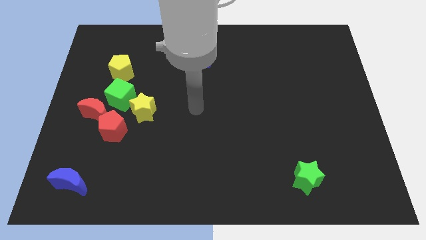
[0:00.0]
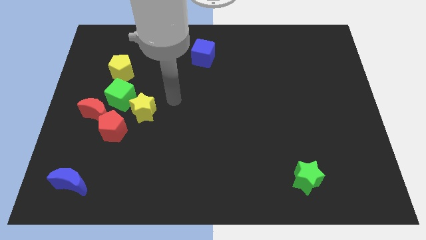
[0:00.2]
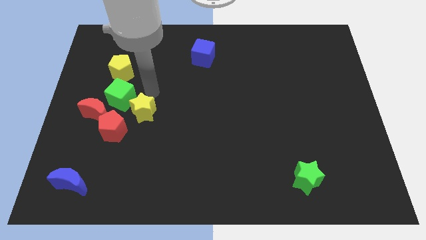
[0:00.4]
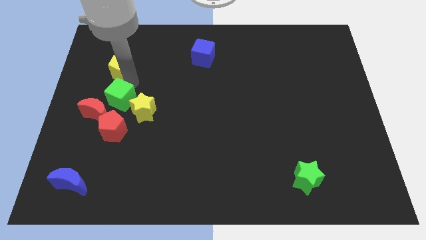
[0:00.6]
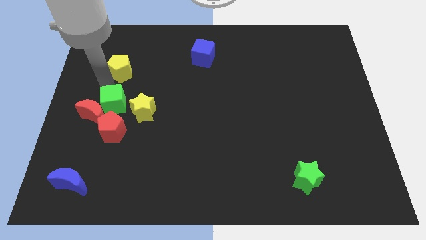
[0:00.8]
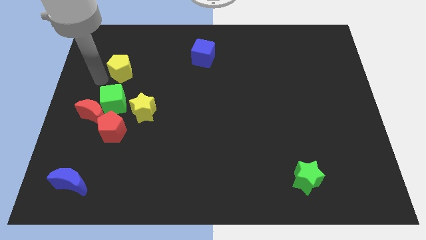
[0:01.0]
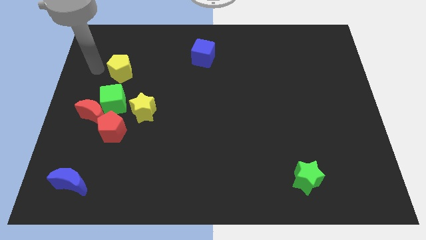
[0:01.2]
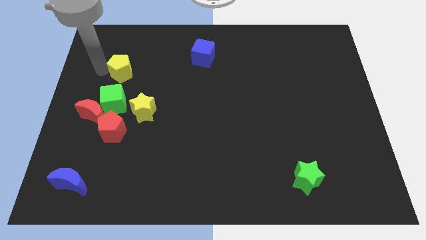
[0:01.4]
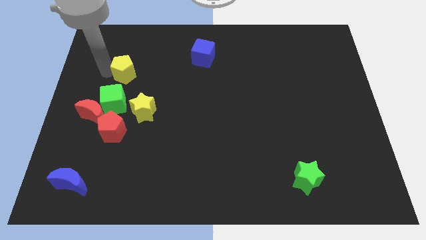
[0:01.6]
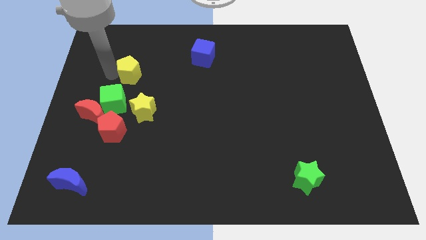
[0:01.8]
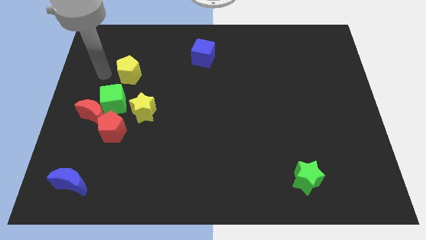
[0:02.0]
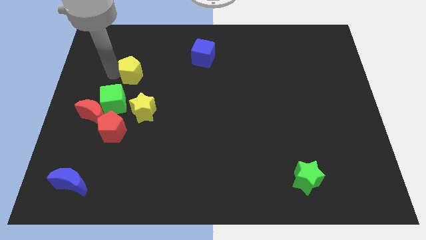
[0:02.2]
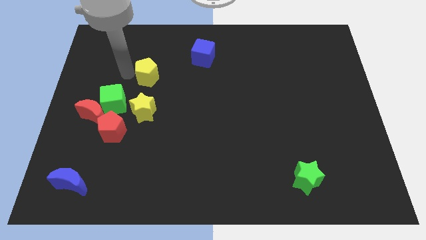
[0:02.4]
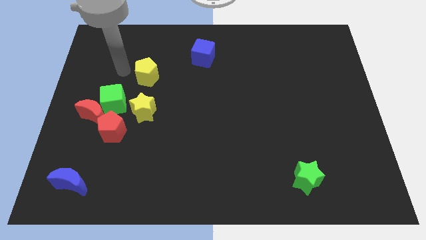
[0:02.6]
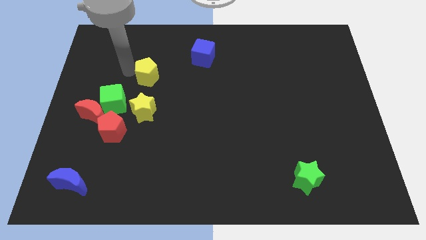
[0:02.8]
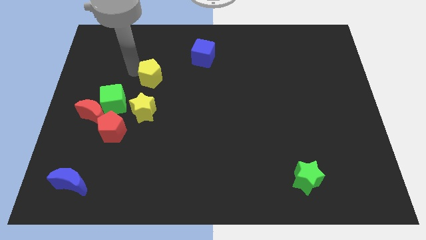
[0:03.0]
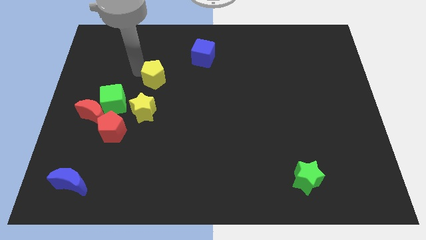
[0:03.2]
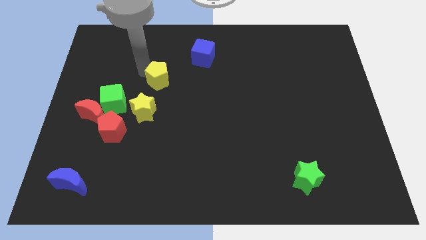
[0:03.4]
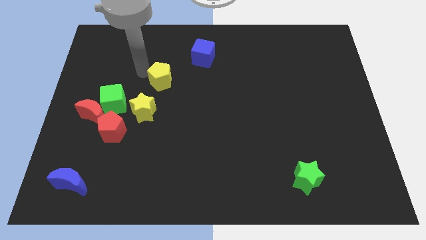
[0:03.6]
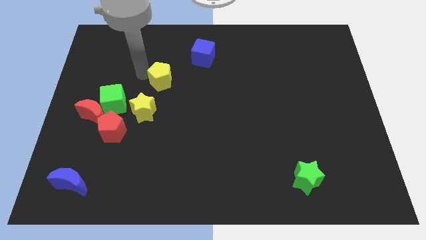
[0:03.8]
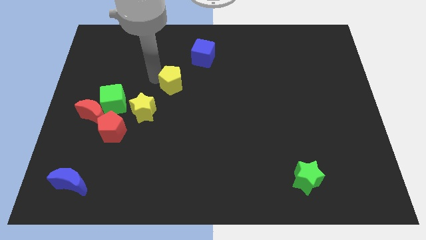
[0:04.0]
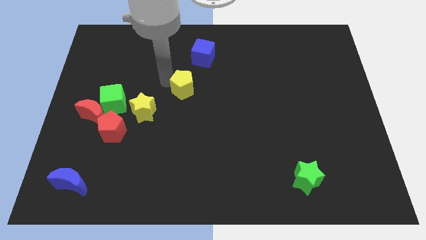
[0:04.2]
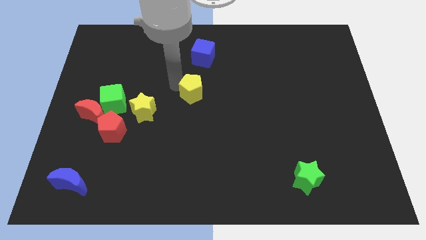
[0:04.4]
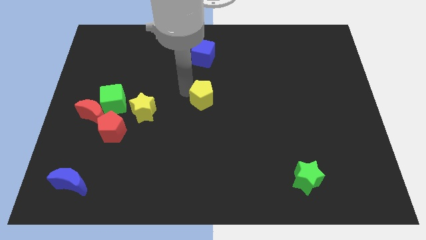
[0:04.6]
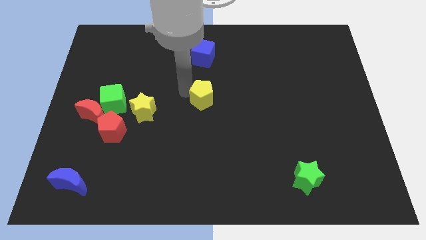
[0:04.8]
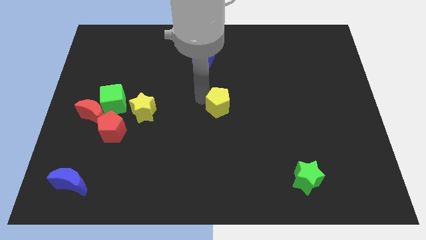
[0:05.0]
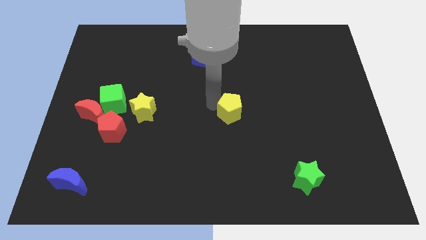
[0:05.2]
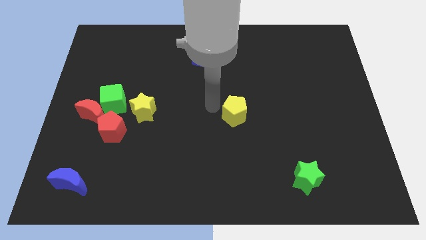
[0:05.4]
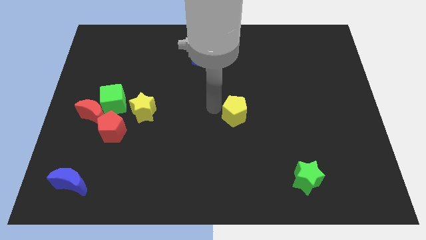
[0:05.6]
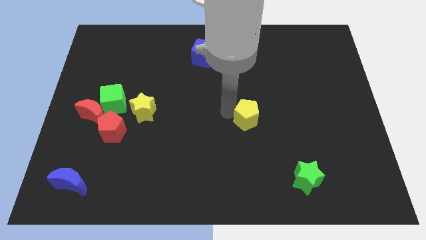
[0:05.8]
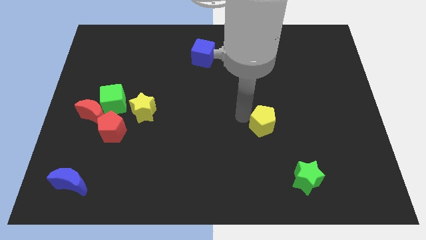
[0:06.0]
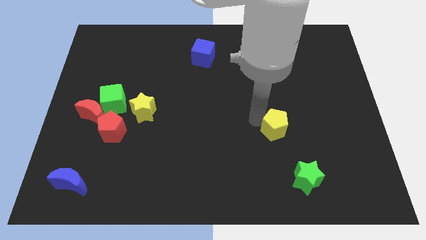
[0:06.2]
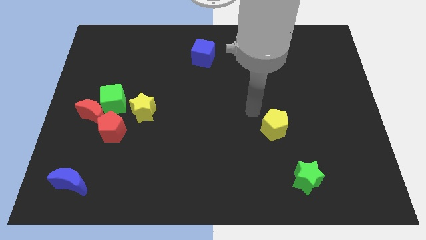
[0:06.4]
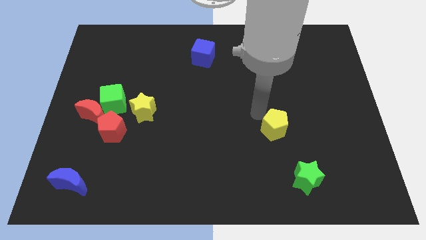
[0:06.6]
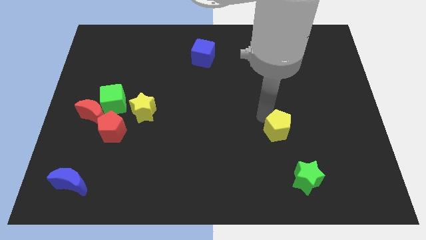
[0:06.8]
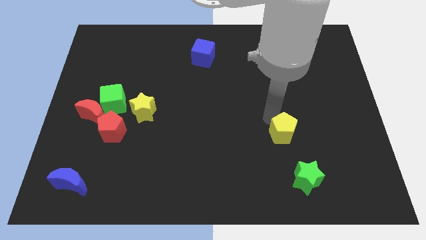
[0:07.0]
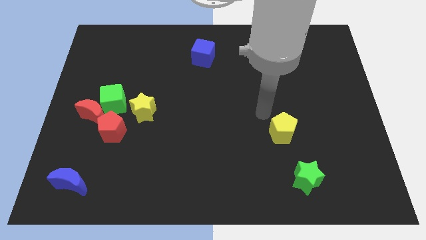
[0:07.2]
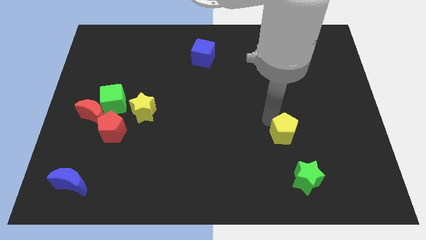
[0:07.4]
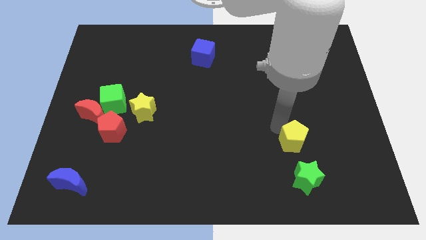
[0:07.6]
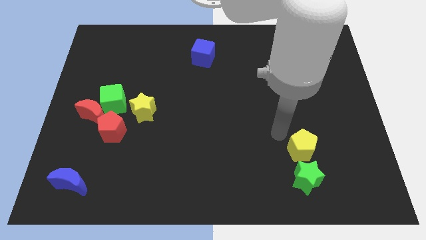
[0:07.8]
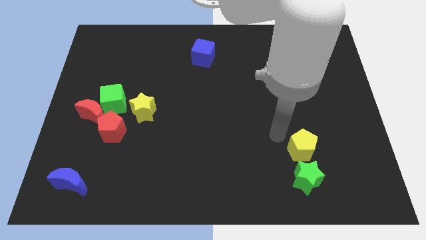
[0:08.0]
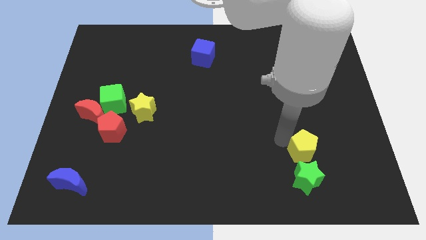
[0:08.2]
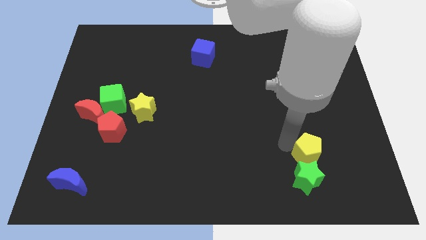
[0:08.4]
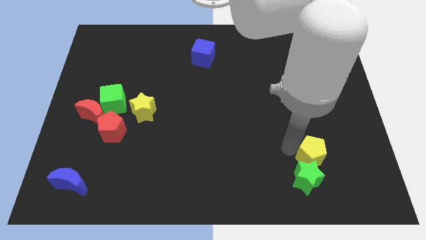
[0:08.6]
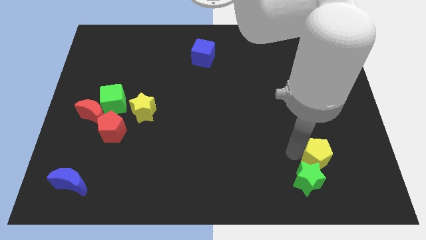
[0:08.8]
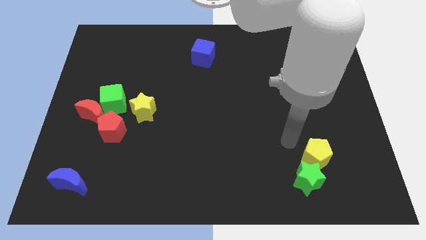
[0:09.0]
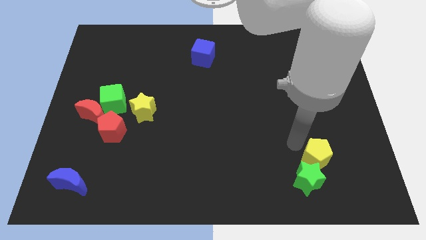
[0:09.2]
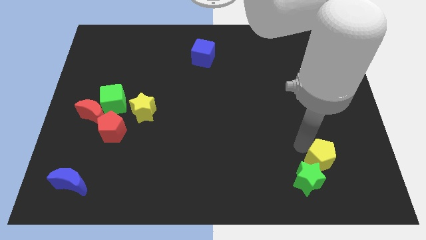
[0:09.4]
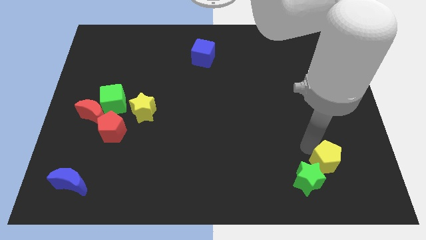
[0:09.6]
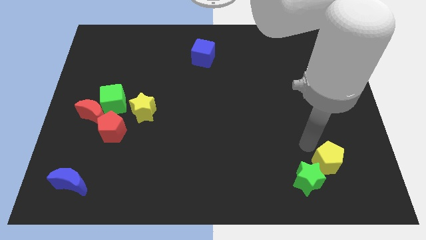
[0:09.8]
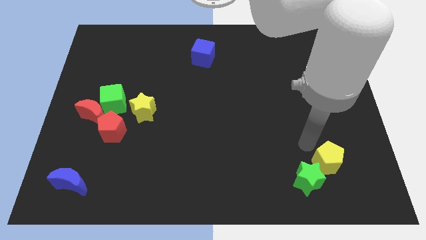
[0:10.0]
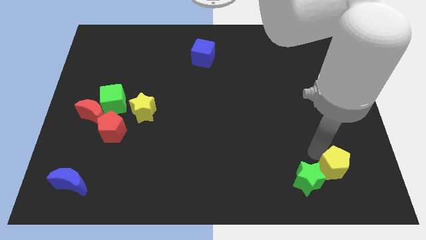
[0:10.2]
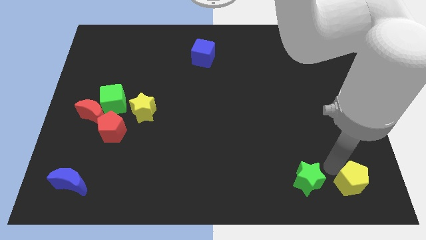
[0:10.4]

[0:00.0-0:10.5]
slide the yellow pentagon to the lower right corner

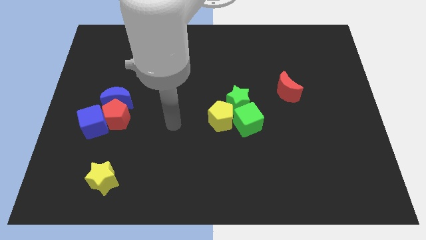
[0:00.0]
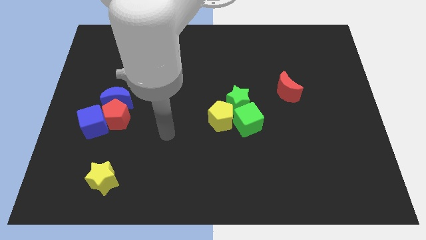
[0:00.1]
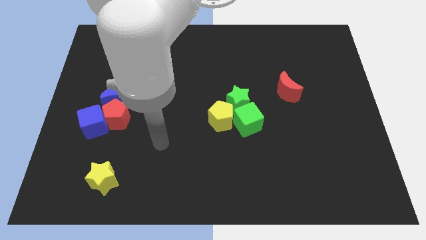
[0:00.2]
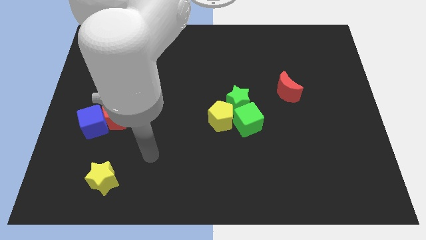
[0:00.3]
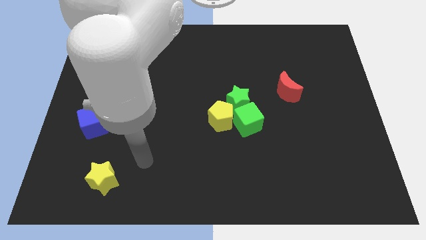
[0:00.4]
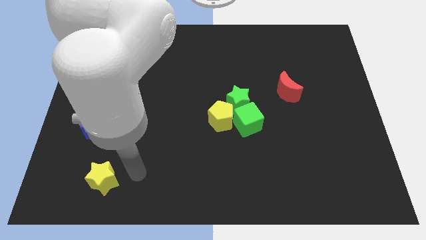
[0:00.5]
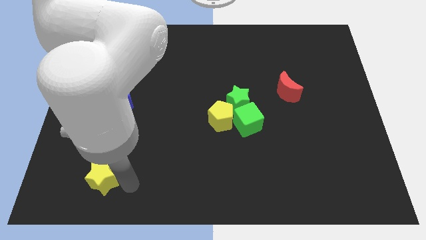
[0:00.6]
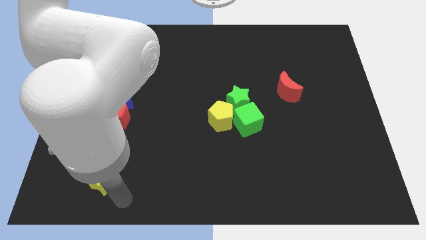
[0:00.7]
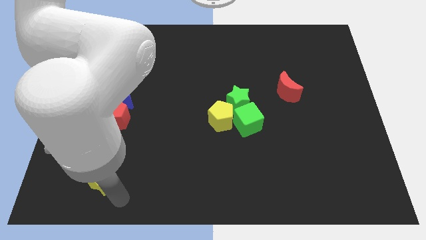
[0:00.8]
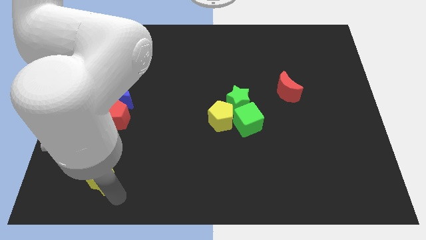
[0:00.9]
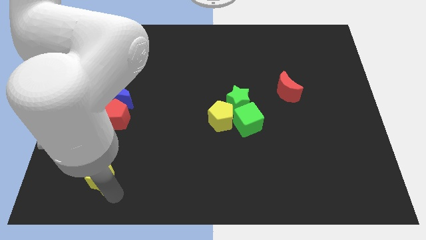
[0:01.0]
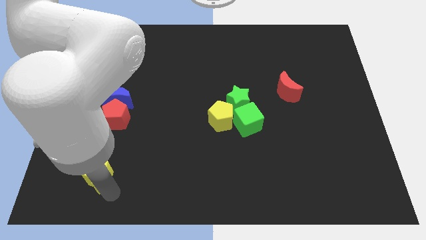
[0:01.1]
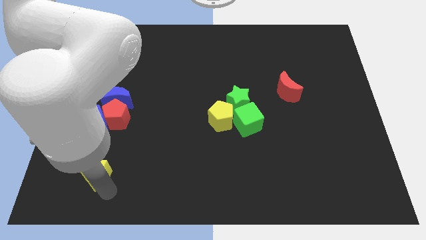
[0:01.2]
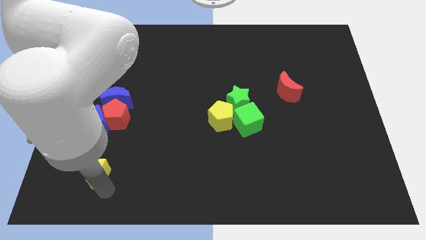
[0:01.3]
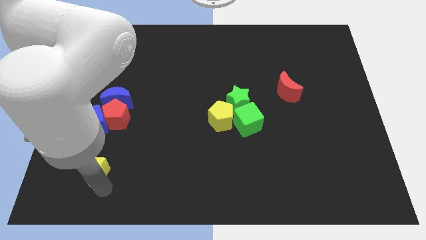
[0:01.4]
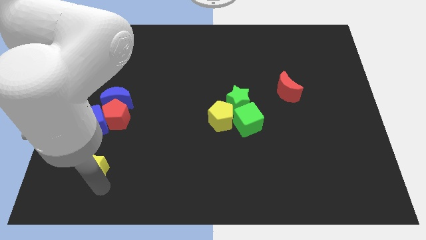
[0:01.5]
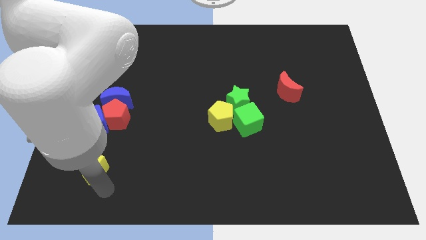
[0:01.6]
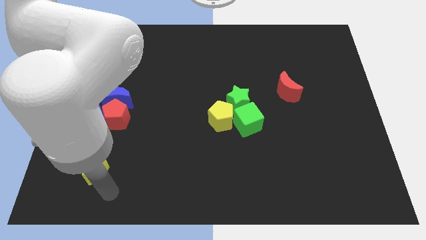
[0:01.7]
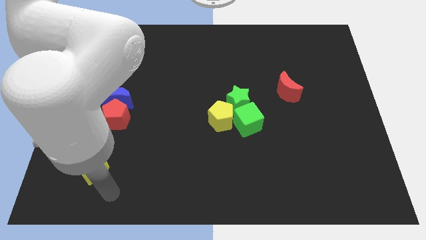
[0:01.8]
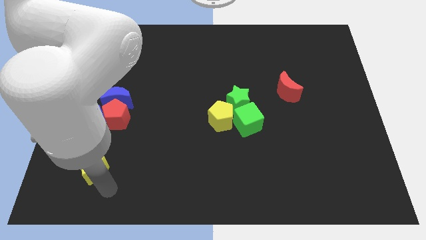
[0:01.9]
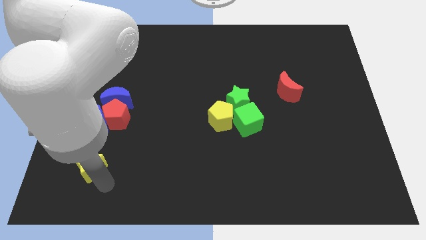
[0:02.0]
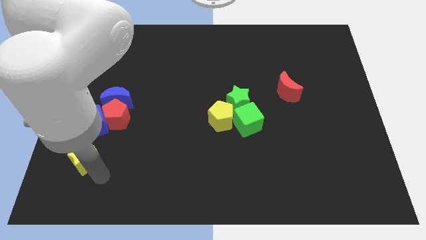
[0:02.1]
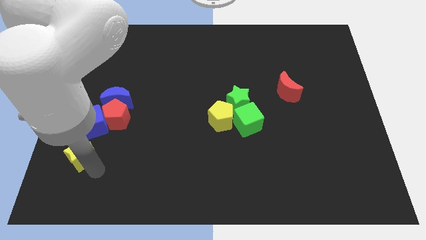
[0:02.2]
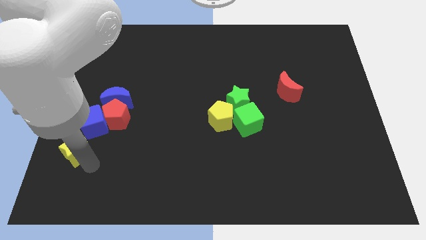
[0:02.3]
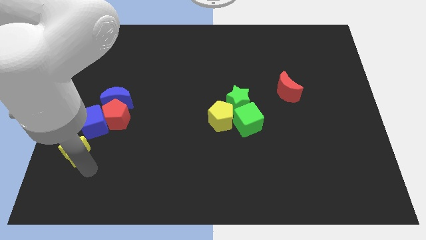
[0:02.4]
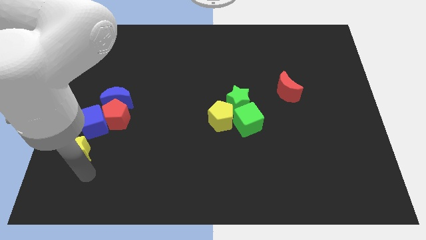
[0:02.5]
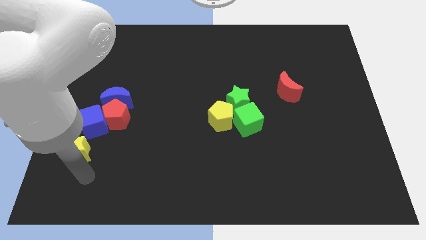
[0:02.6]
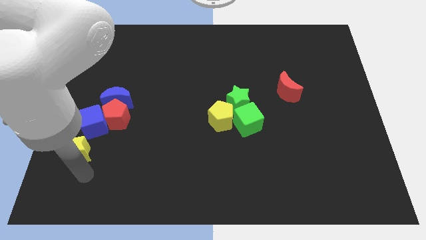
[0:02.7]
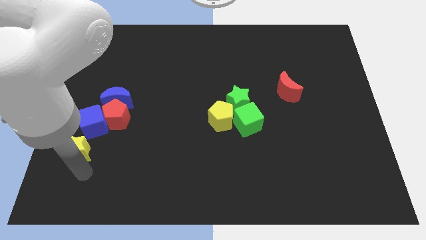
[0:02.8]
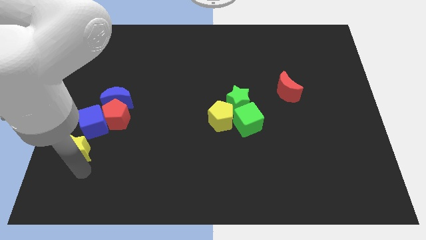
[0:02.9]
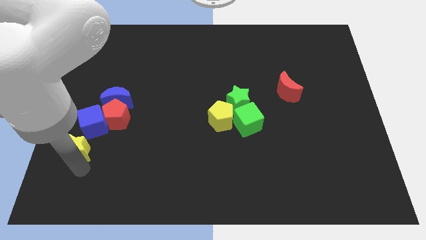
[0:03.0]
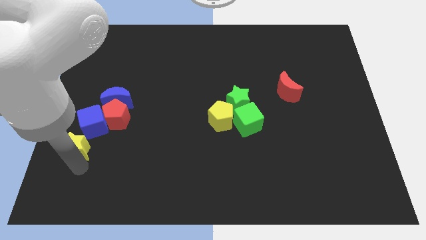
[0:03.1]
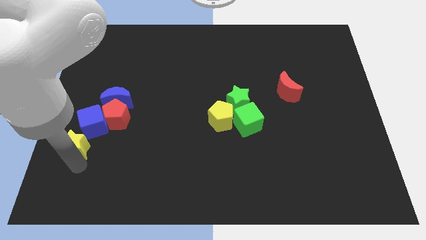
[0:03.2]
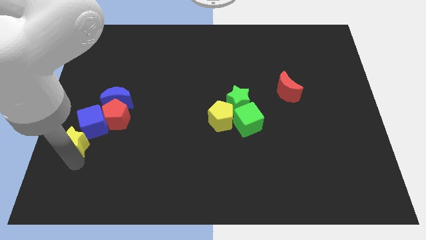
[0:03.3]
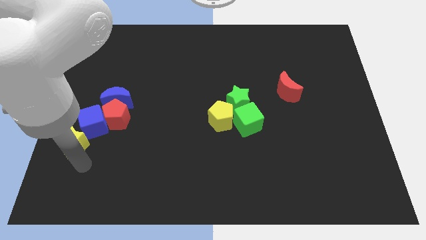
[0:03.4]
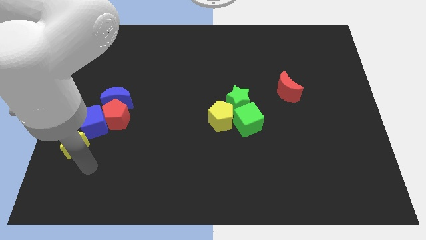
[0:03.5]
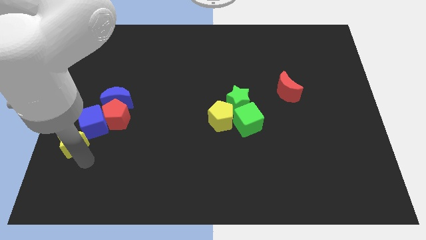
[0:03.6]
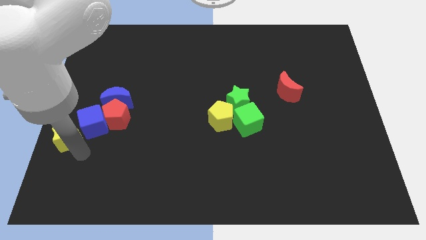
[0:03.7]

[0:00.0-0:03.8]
push the yellow star to the center left
